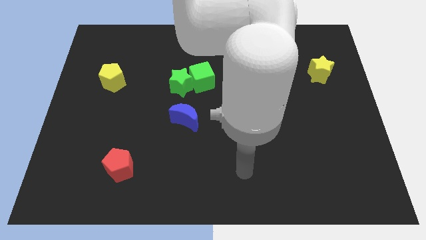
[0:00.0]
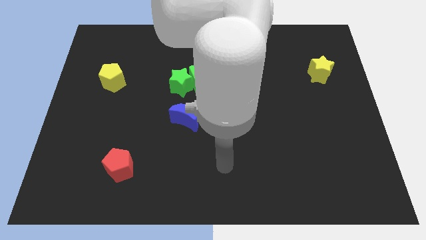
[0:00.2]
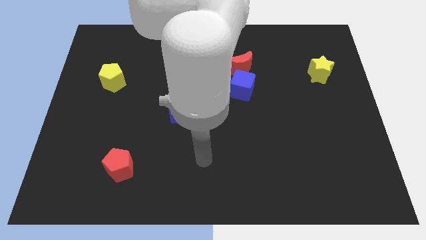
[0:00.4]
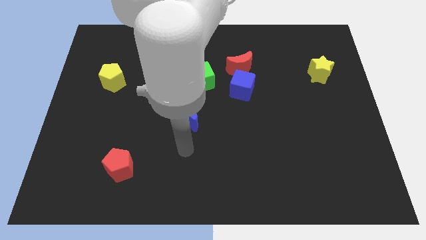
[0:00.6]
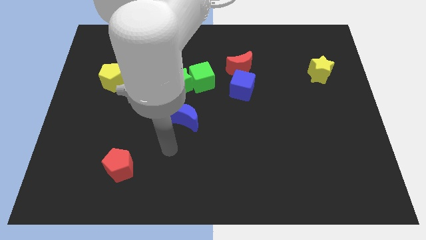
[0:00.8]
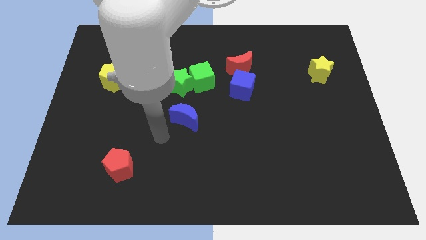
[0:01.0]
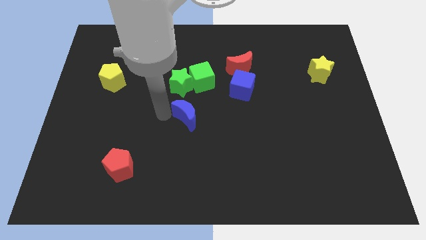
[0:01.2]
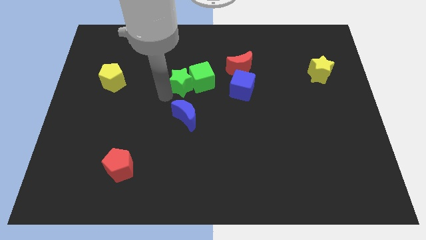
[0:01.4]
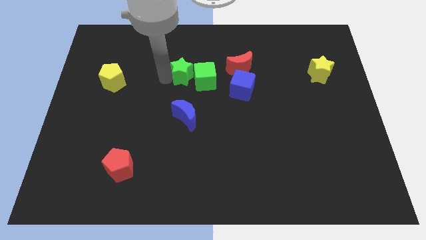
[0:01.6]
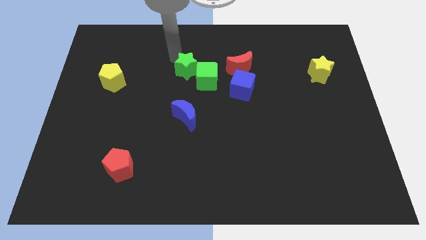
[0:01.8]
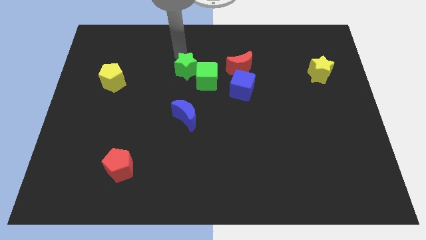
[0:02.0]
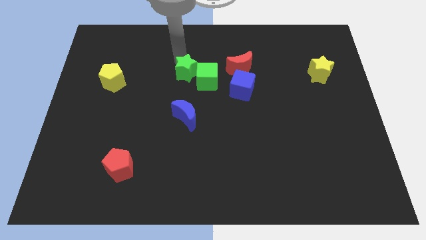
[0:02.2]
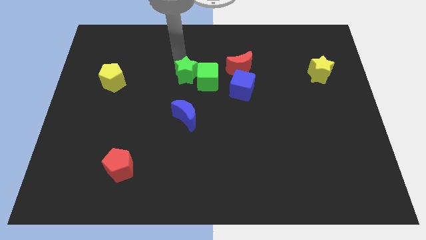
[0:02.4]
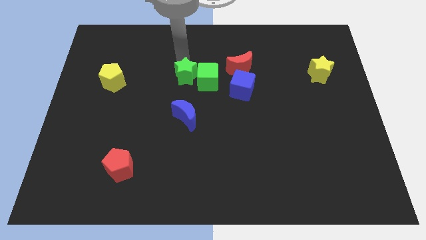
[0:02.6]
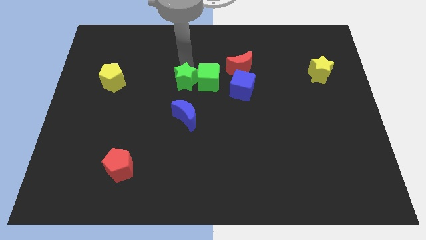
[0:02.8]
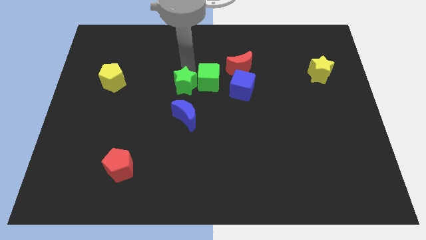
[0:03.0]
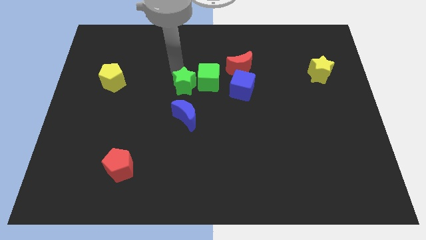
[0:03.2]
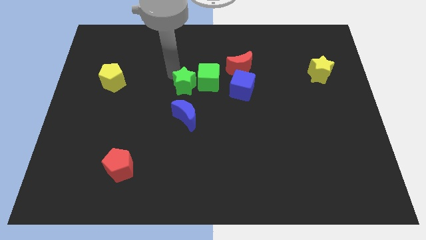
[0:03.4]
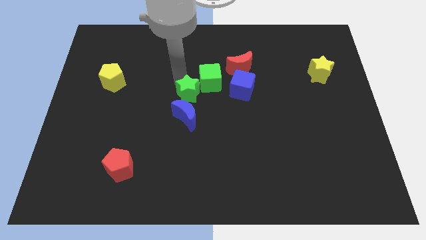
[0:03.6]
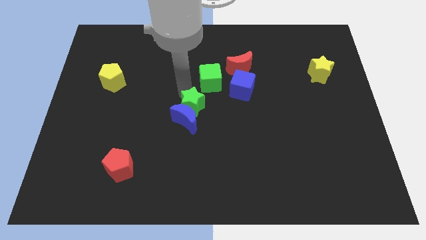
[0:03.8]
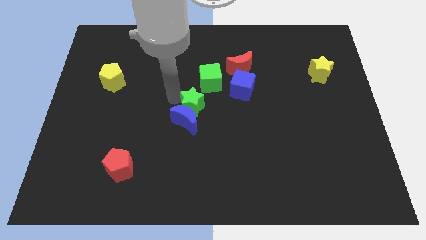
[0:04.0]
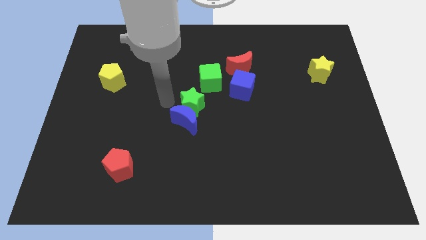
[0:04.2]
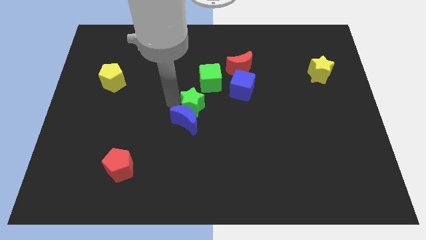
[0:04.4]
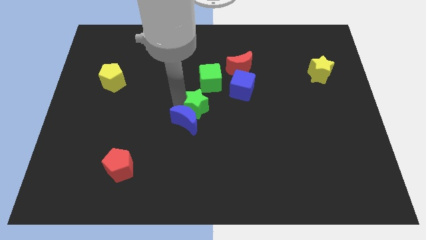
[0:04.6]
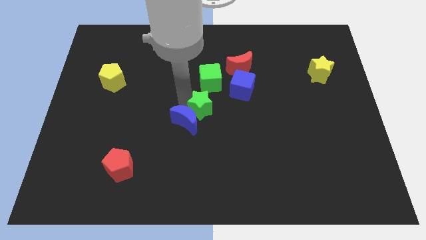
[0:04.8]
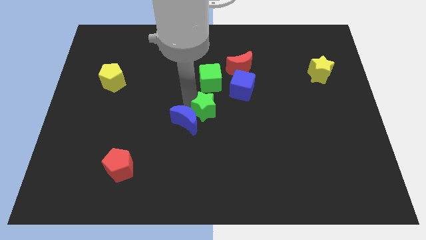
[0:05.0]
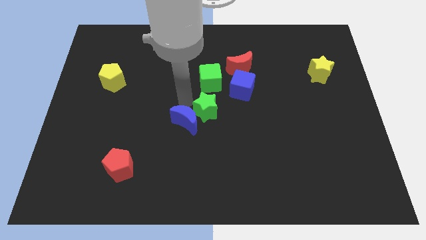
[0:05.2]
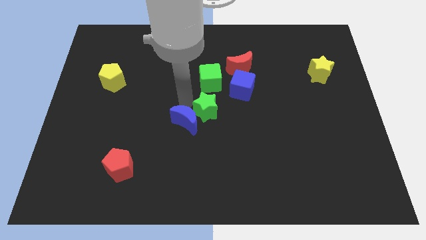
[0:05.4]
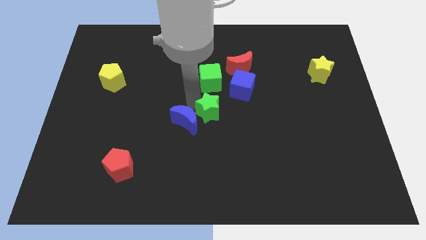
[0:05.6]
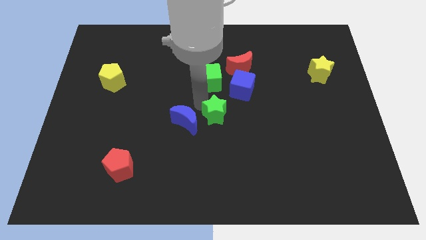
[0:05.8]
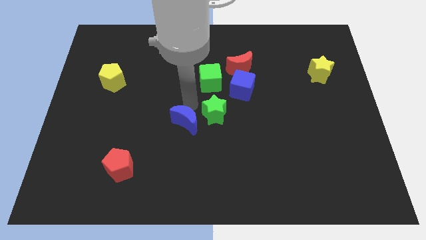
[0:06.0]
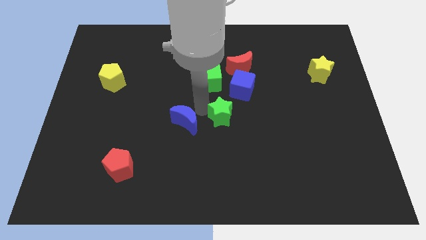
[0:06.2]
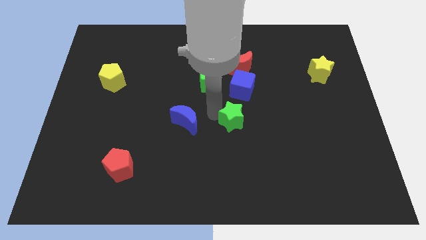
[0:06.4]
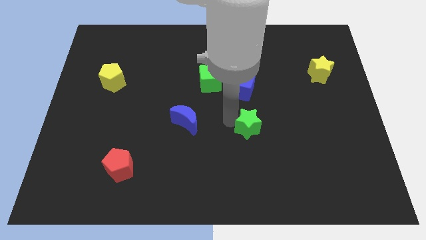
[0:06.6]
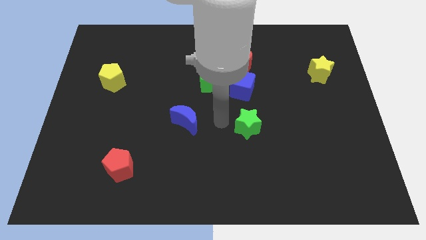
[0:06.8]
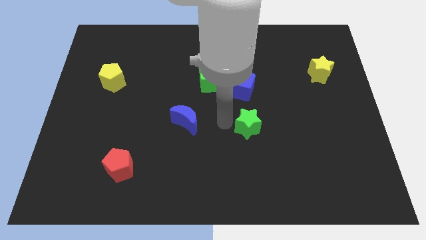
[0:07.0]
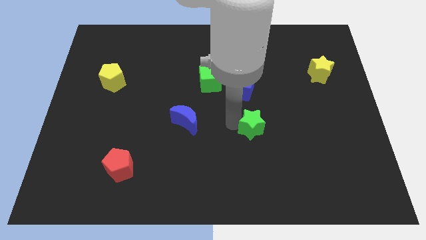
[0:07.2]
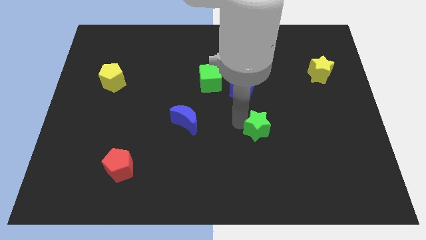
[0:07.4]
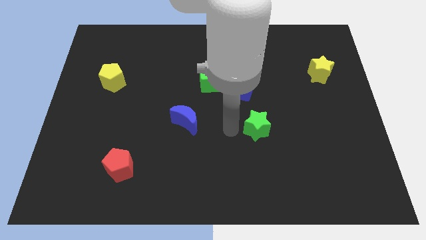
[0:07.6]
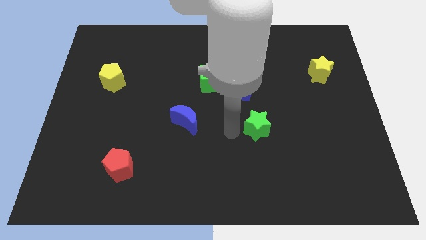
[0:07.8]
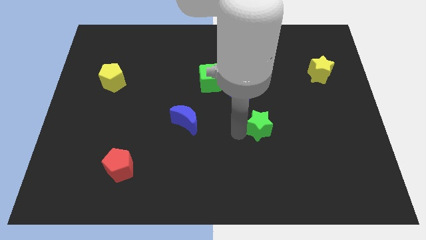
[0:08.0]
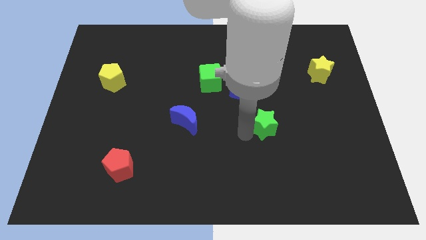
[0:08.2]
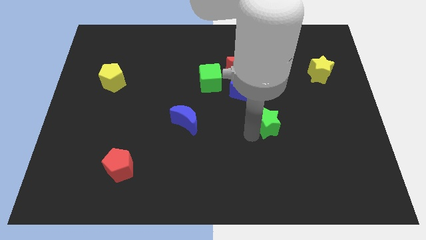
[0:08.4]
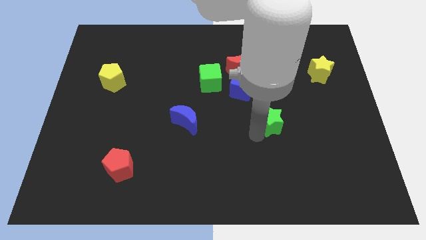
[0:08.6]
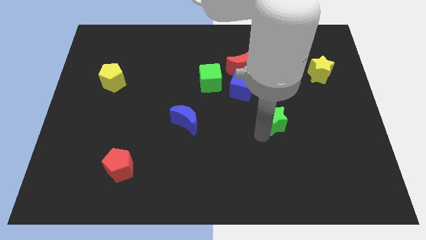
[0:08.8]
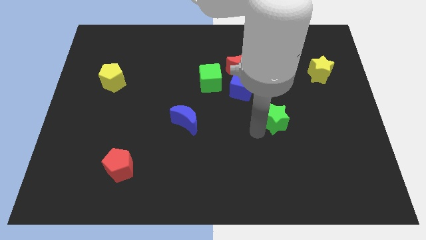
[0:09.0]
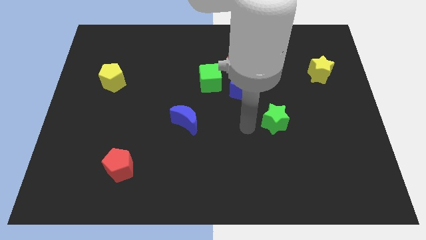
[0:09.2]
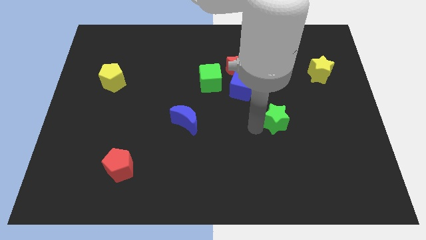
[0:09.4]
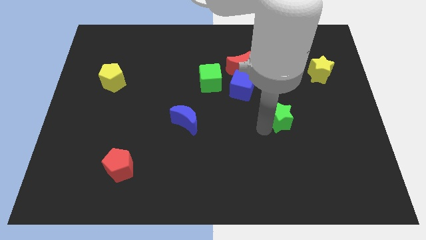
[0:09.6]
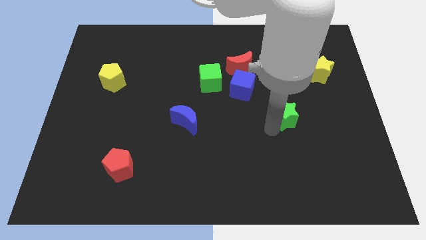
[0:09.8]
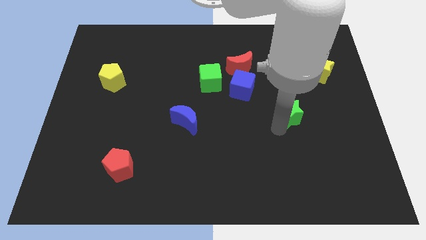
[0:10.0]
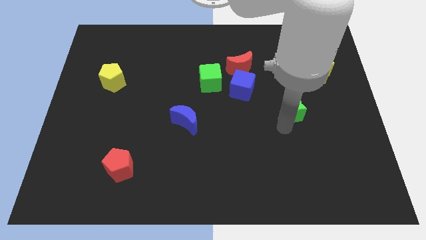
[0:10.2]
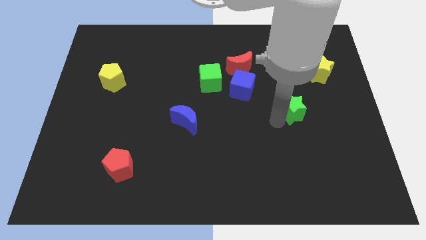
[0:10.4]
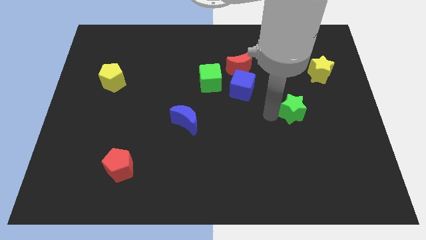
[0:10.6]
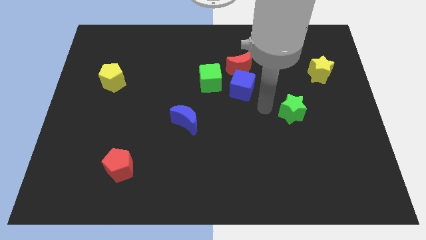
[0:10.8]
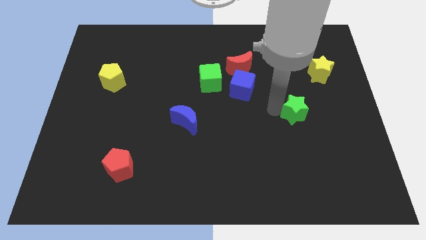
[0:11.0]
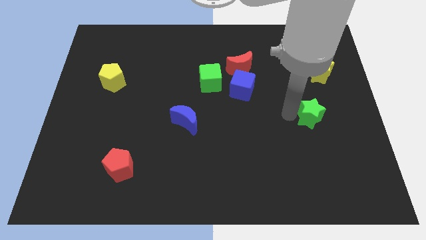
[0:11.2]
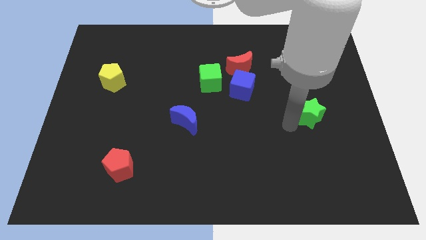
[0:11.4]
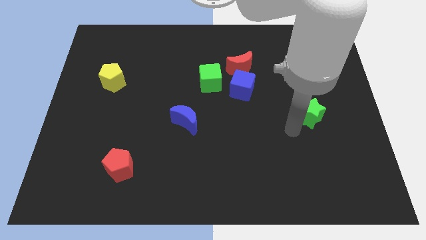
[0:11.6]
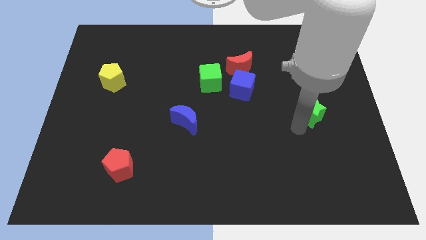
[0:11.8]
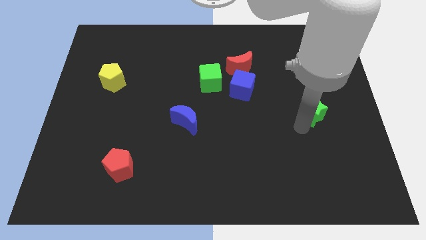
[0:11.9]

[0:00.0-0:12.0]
put the green star to the bottom side of the yellow star
